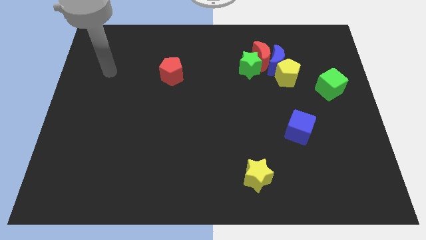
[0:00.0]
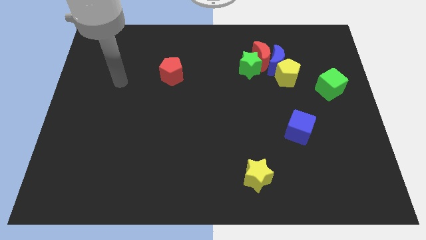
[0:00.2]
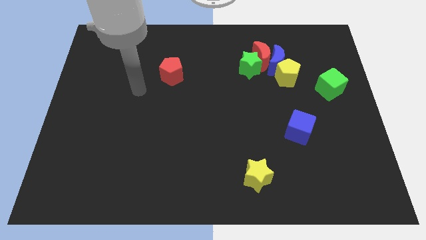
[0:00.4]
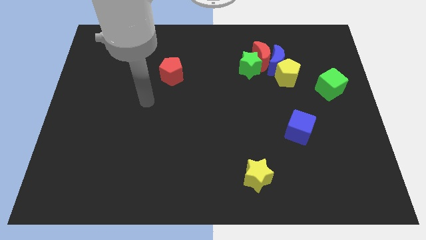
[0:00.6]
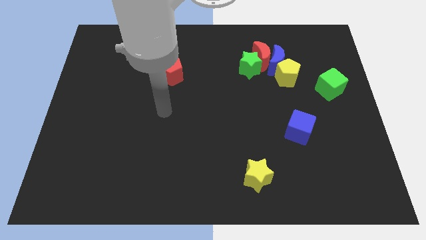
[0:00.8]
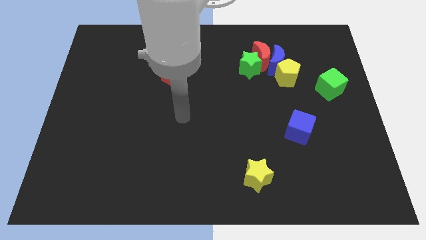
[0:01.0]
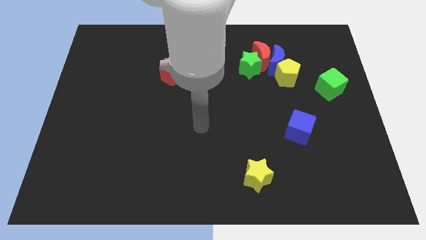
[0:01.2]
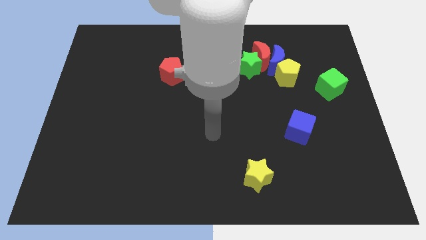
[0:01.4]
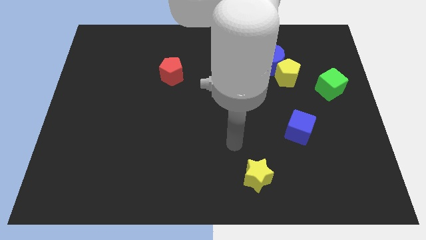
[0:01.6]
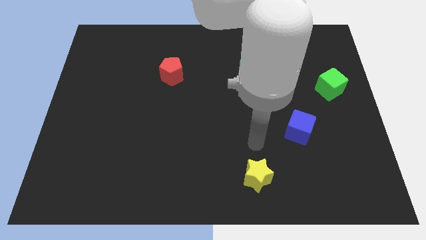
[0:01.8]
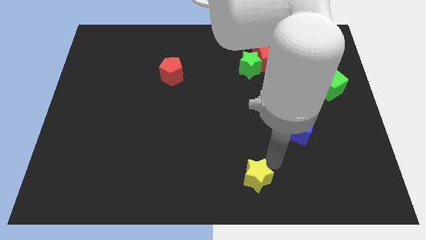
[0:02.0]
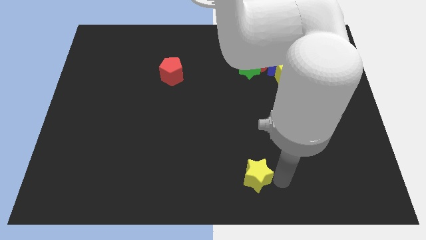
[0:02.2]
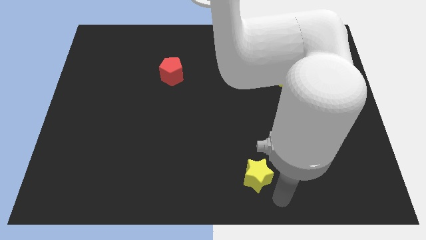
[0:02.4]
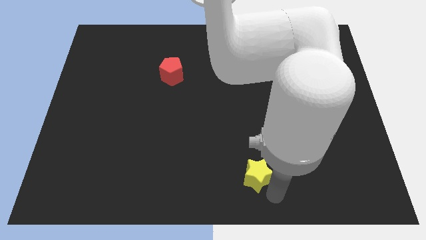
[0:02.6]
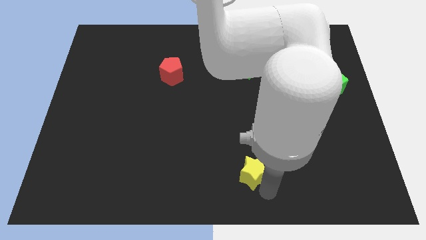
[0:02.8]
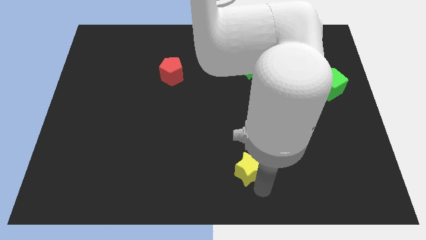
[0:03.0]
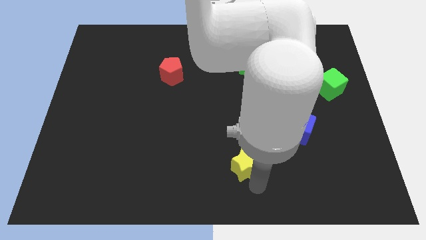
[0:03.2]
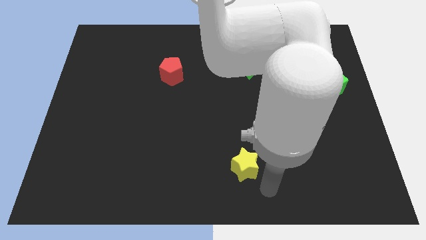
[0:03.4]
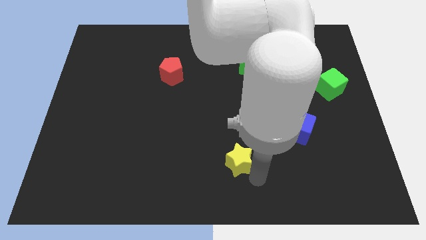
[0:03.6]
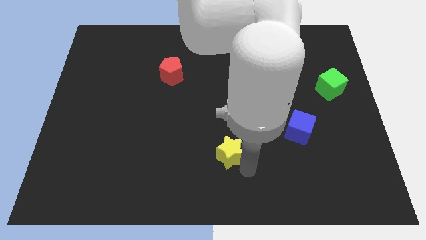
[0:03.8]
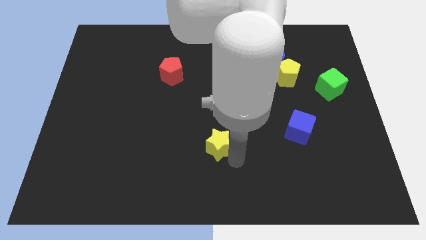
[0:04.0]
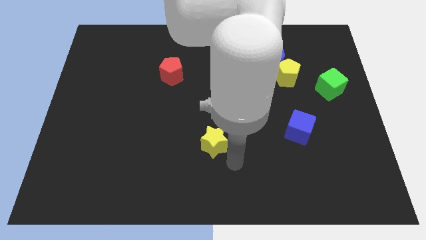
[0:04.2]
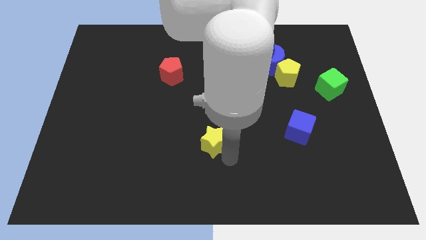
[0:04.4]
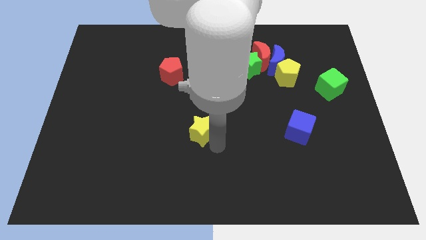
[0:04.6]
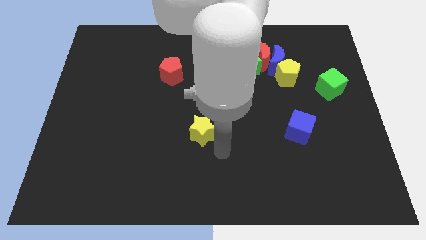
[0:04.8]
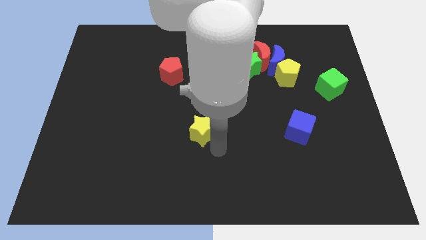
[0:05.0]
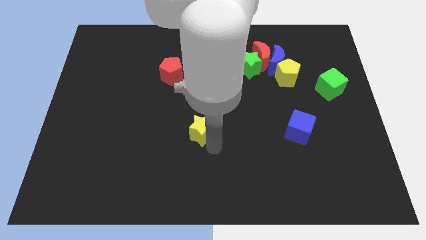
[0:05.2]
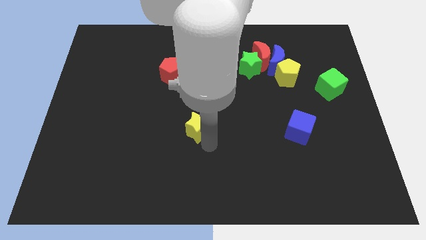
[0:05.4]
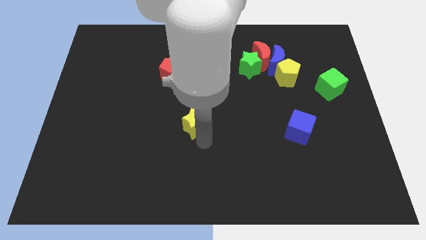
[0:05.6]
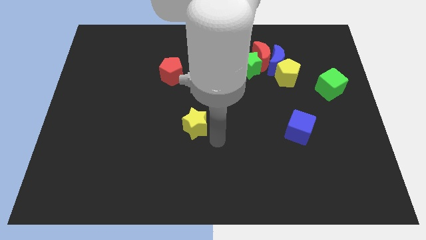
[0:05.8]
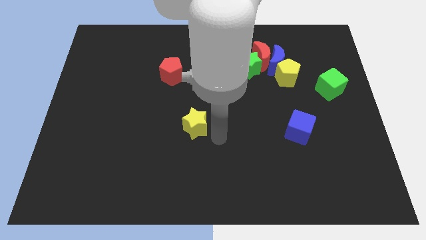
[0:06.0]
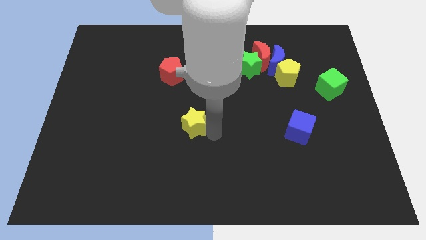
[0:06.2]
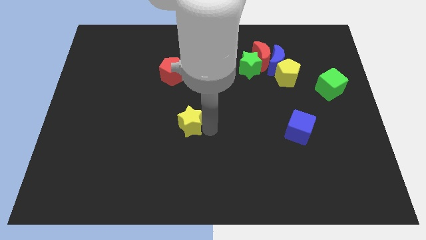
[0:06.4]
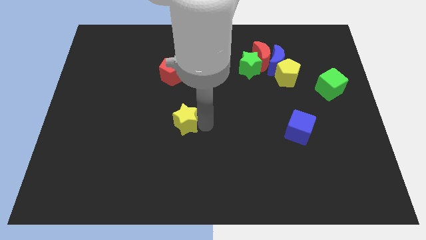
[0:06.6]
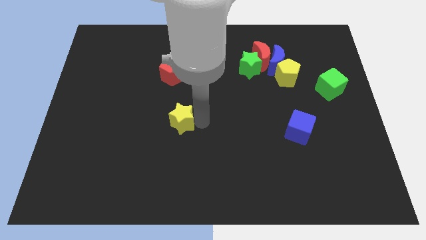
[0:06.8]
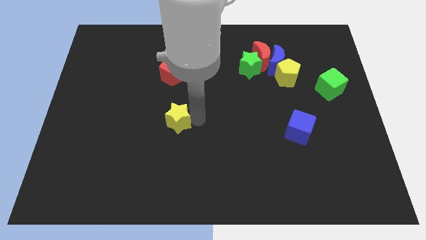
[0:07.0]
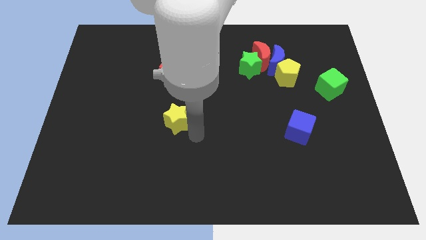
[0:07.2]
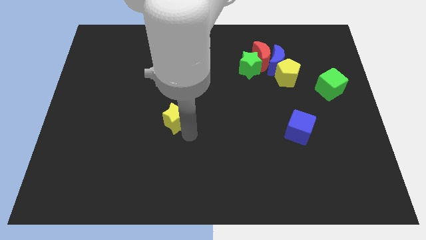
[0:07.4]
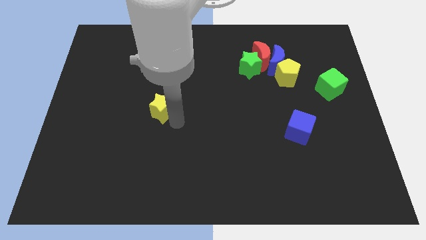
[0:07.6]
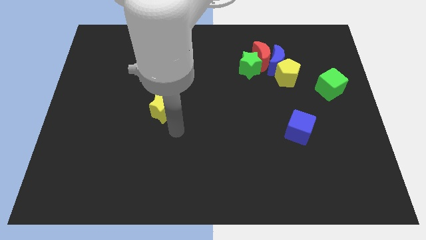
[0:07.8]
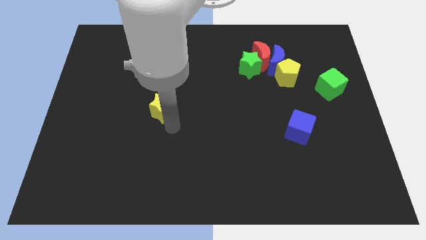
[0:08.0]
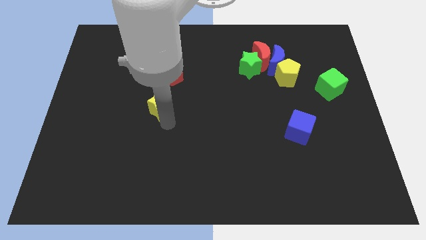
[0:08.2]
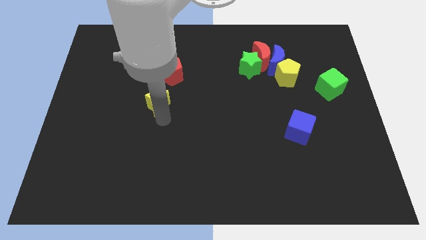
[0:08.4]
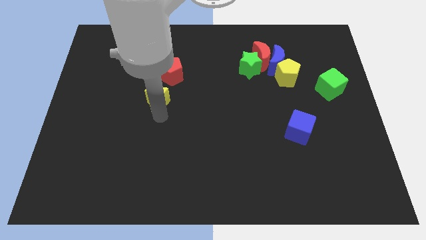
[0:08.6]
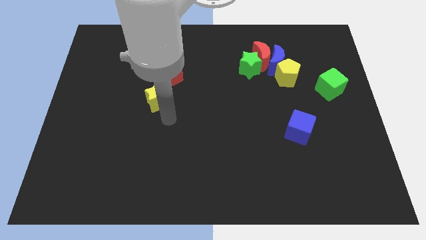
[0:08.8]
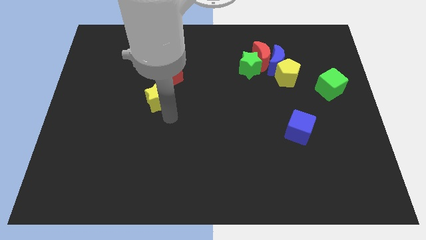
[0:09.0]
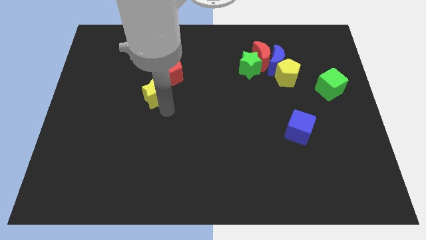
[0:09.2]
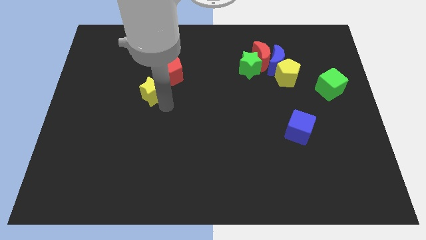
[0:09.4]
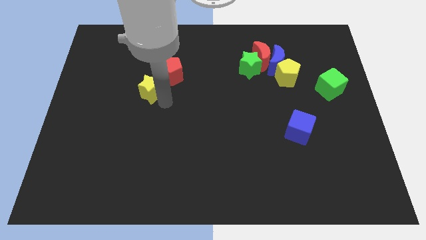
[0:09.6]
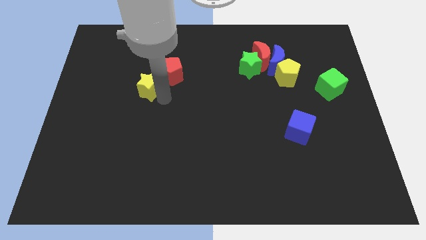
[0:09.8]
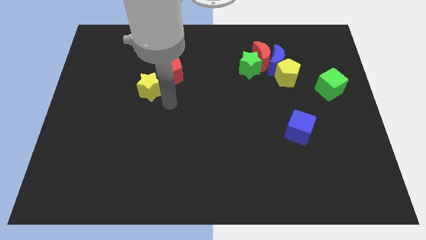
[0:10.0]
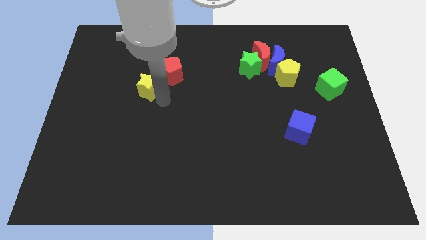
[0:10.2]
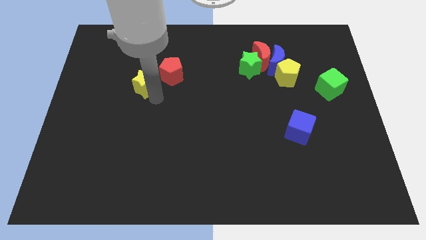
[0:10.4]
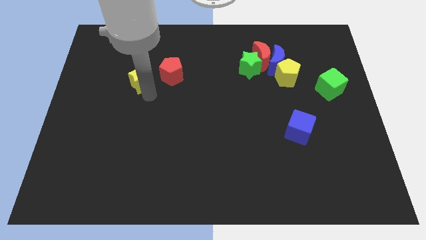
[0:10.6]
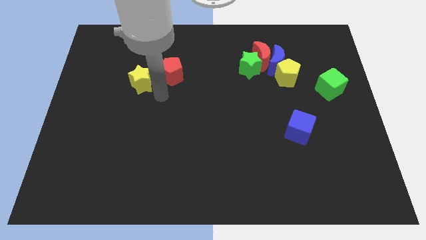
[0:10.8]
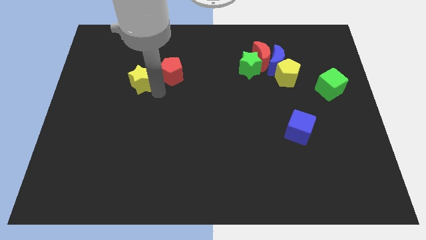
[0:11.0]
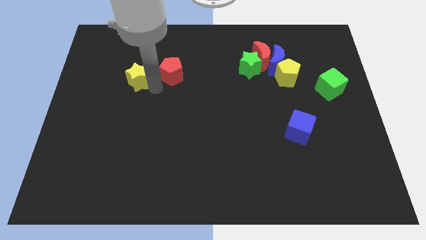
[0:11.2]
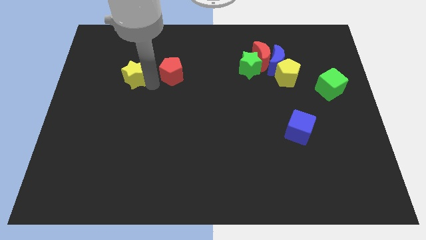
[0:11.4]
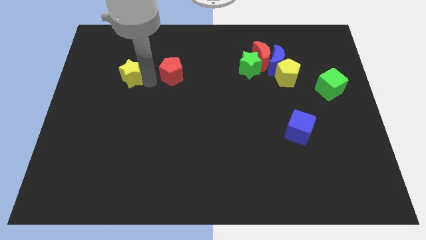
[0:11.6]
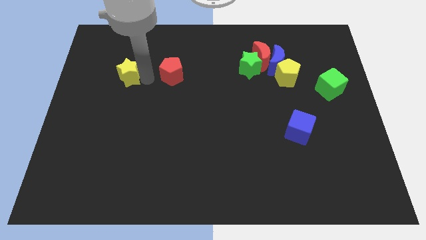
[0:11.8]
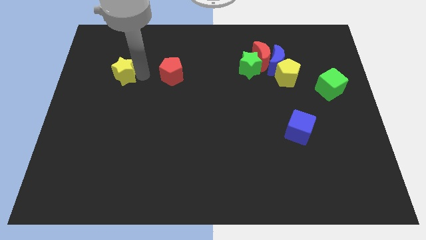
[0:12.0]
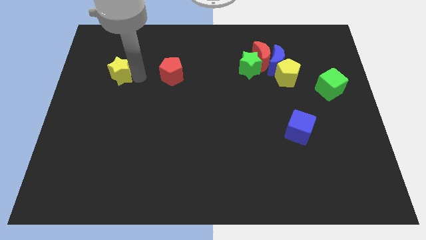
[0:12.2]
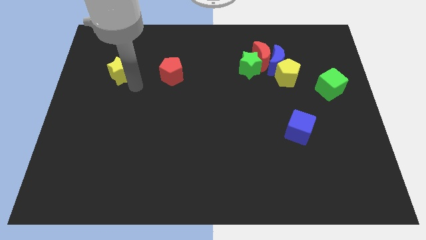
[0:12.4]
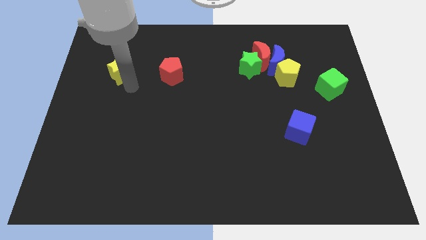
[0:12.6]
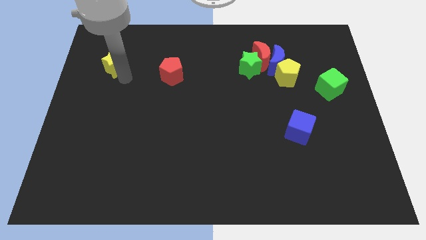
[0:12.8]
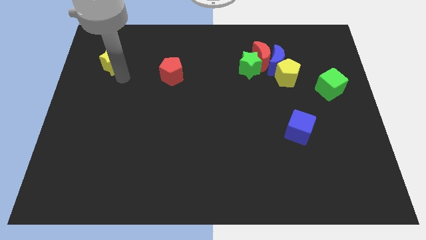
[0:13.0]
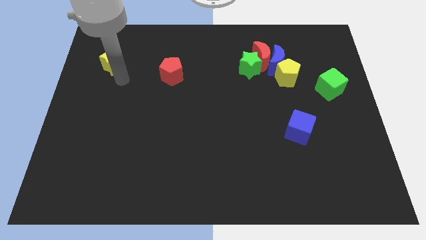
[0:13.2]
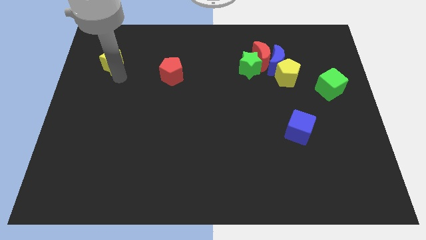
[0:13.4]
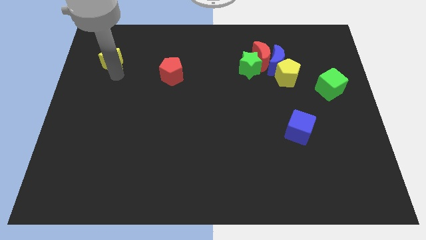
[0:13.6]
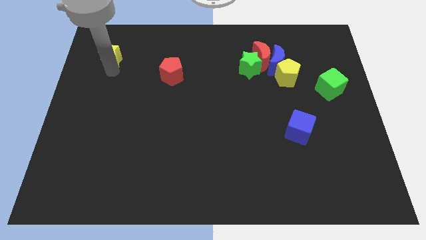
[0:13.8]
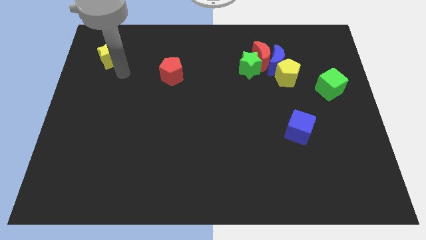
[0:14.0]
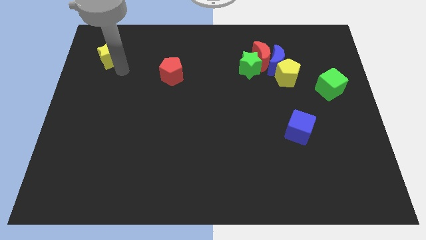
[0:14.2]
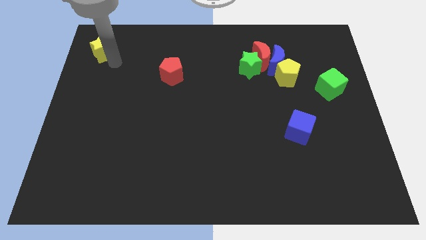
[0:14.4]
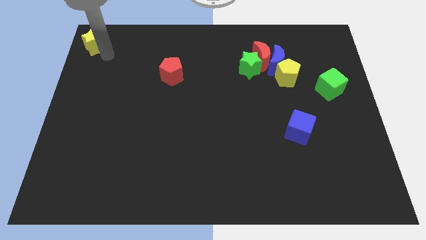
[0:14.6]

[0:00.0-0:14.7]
move the yellow star to the top left of the board
